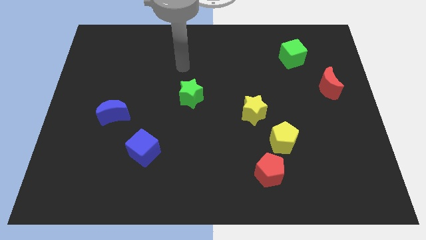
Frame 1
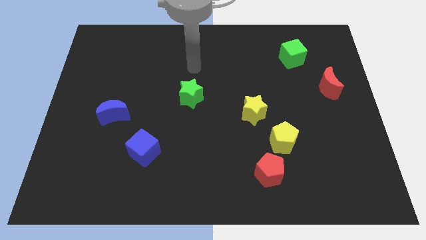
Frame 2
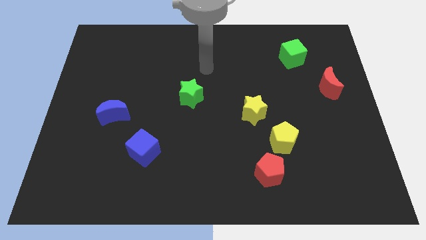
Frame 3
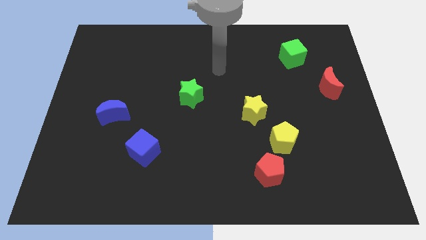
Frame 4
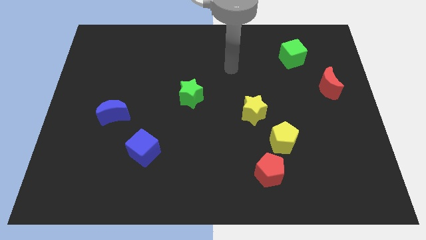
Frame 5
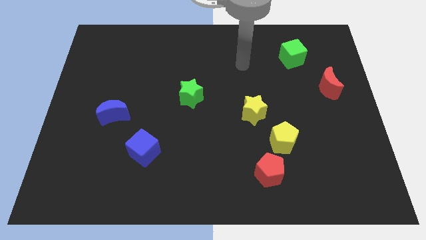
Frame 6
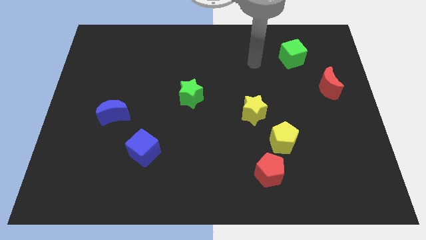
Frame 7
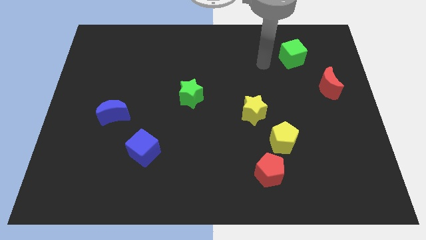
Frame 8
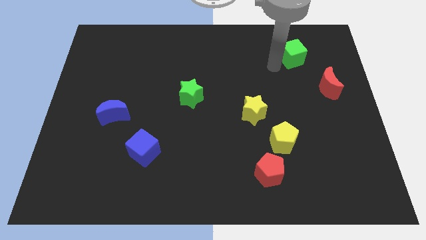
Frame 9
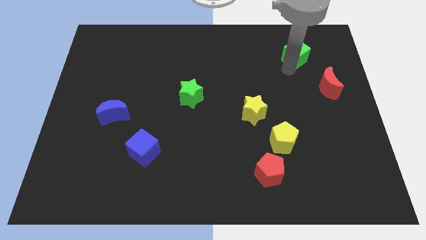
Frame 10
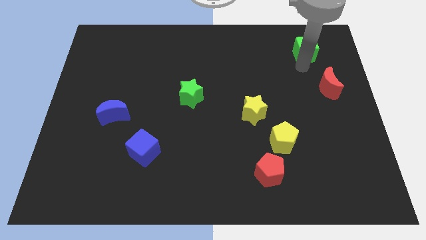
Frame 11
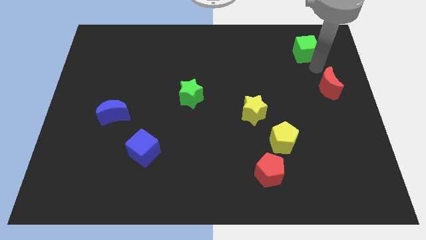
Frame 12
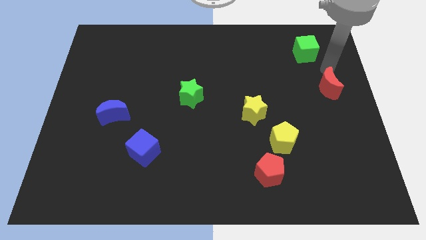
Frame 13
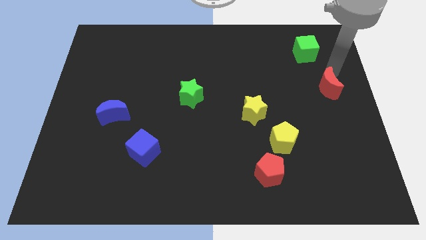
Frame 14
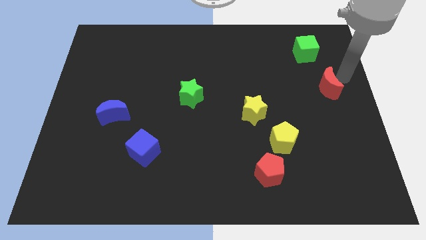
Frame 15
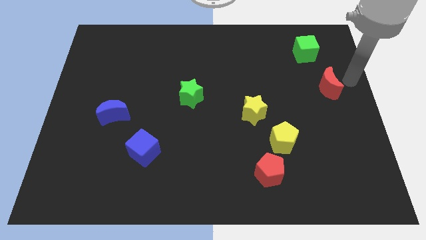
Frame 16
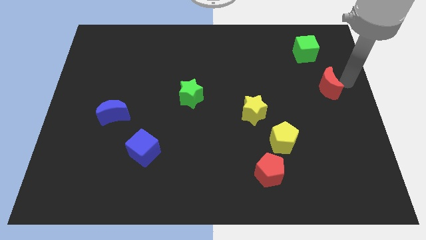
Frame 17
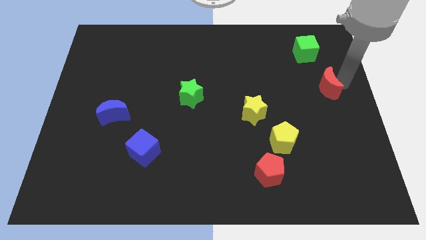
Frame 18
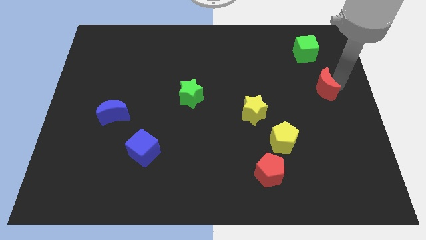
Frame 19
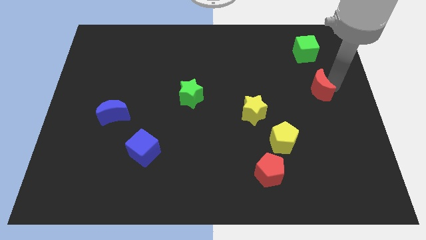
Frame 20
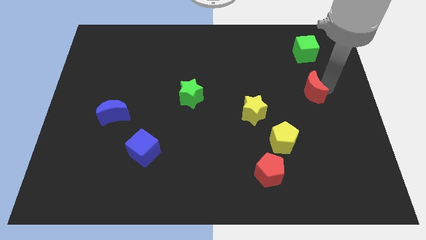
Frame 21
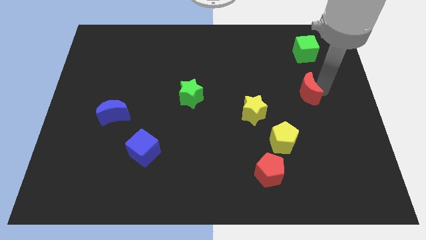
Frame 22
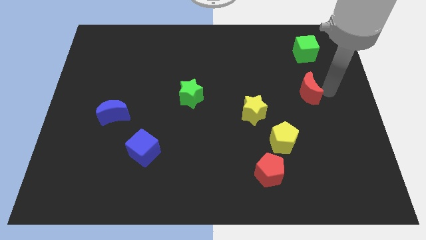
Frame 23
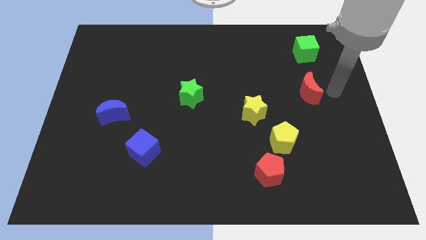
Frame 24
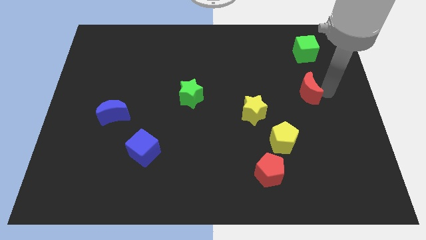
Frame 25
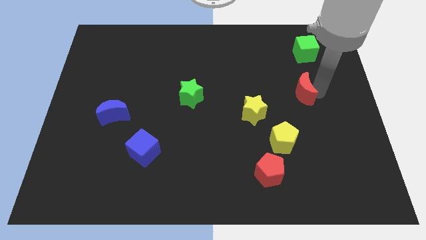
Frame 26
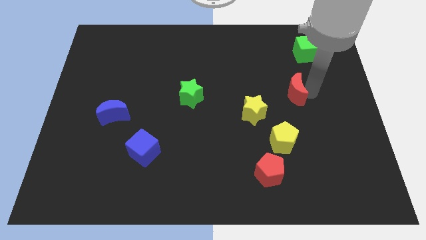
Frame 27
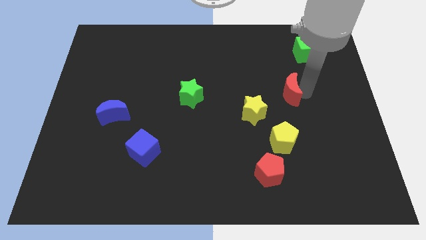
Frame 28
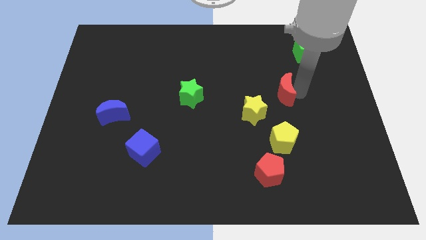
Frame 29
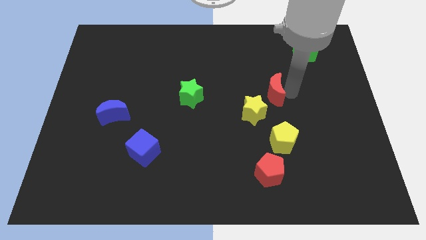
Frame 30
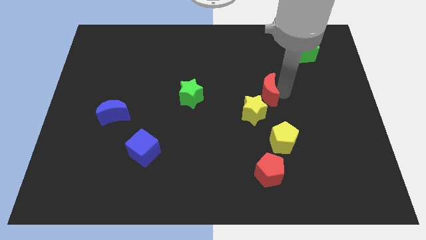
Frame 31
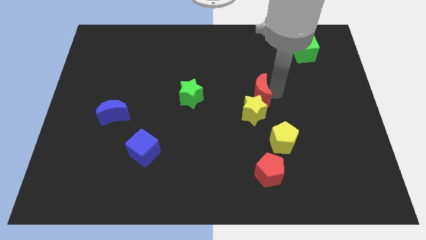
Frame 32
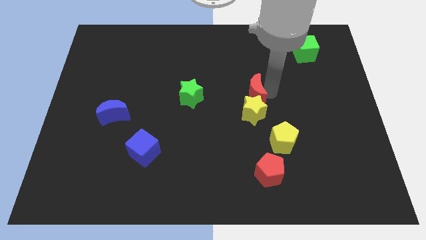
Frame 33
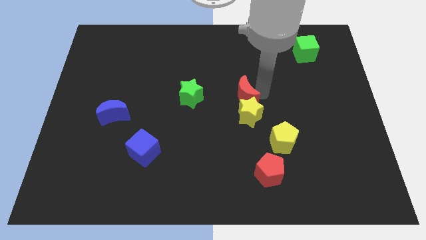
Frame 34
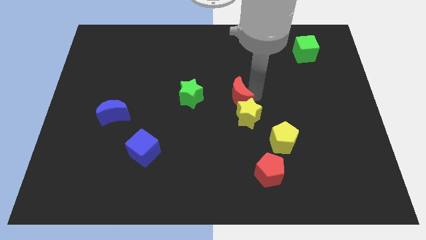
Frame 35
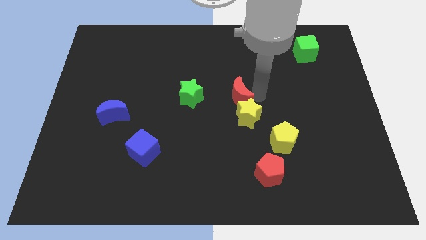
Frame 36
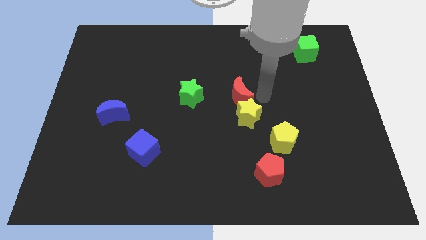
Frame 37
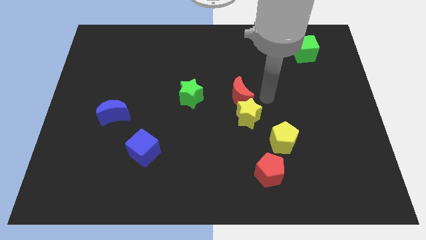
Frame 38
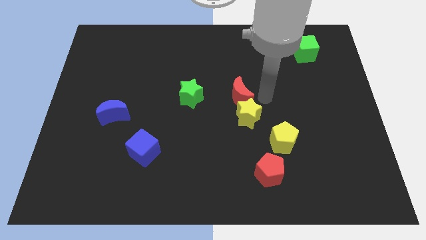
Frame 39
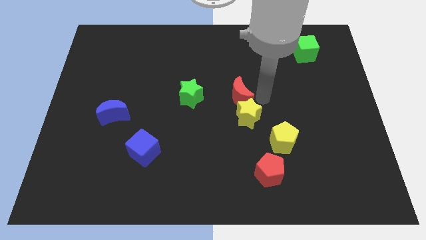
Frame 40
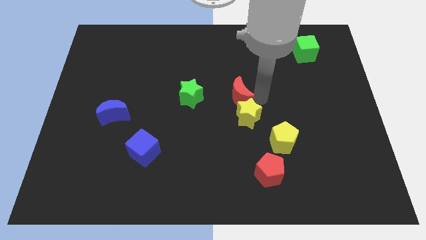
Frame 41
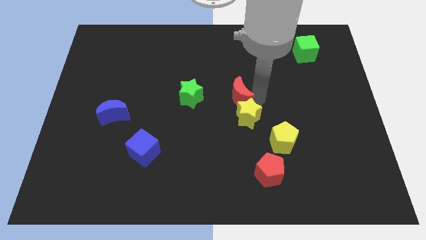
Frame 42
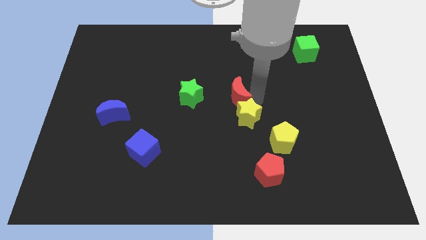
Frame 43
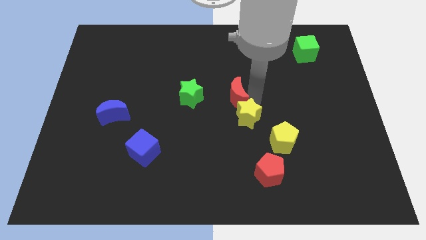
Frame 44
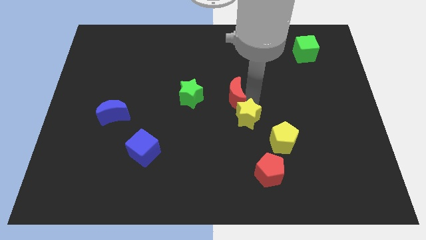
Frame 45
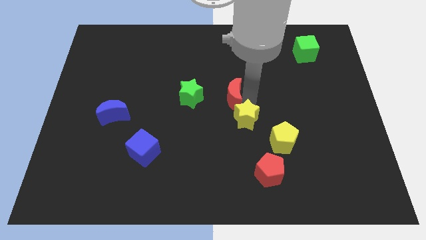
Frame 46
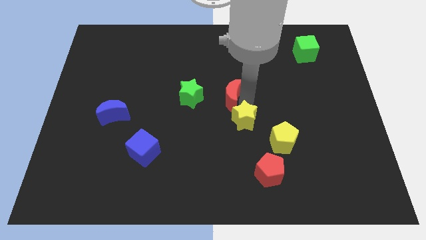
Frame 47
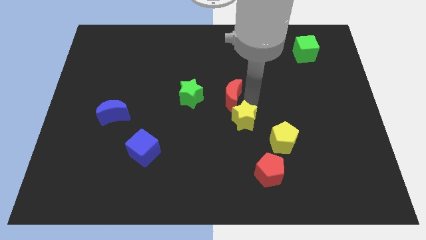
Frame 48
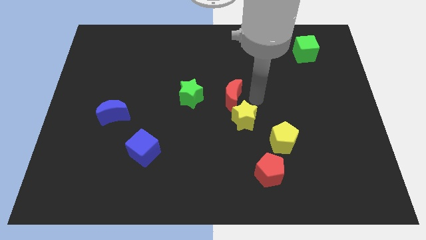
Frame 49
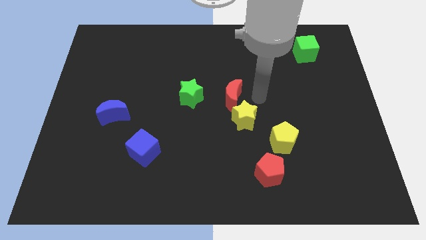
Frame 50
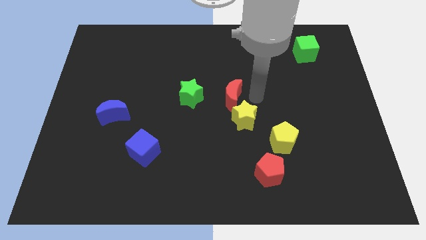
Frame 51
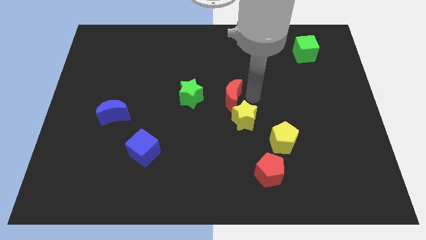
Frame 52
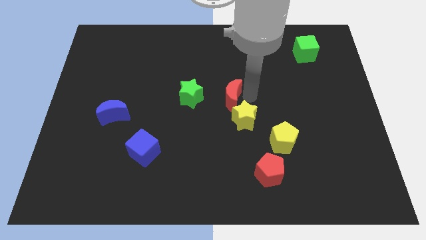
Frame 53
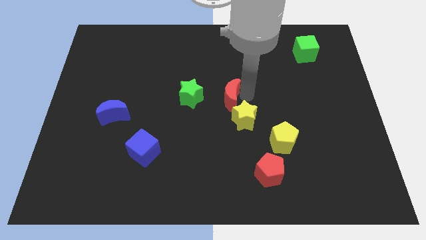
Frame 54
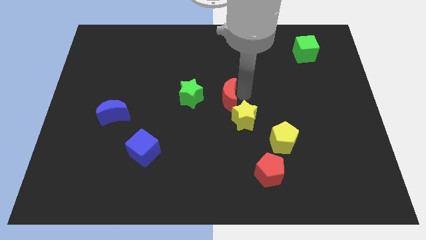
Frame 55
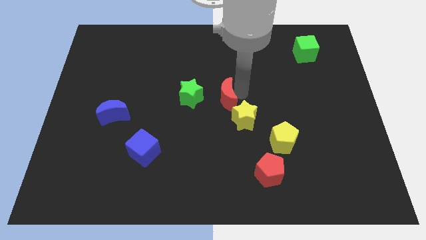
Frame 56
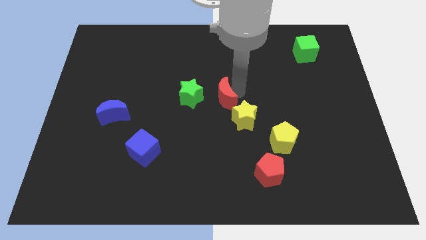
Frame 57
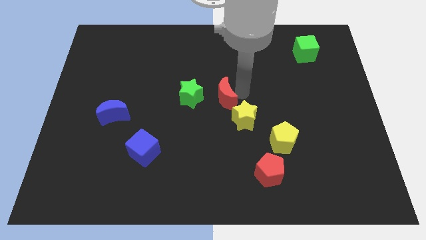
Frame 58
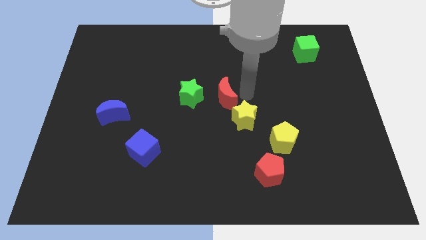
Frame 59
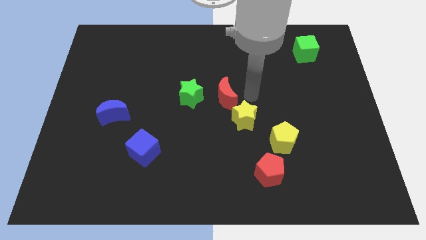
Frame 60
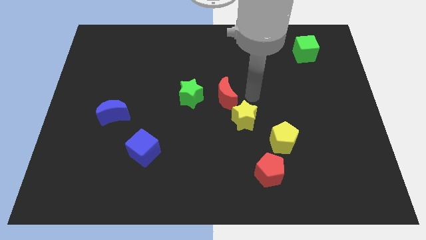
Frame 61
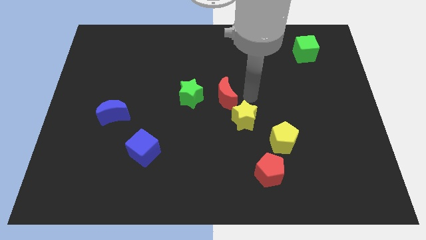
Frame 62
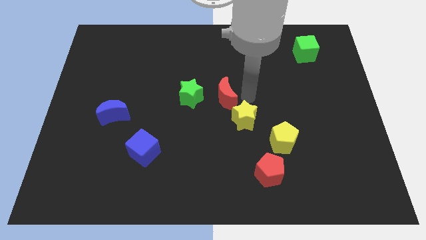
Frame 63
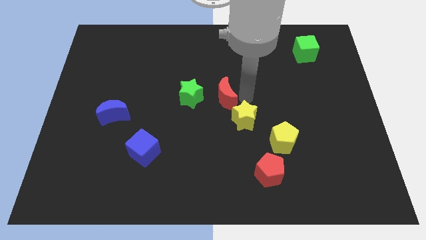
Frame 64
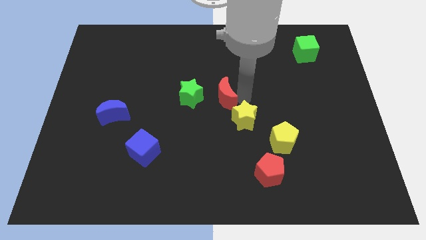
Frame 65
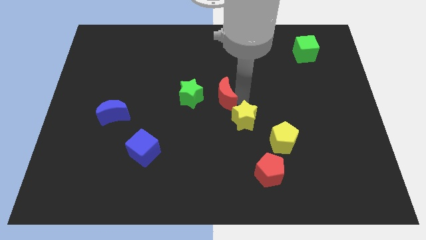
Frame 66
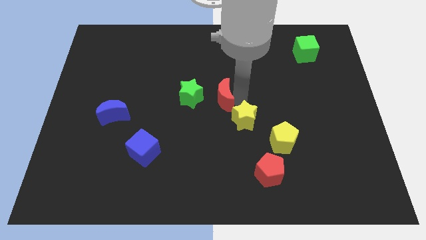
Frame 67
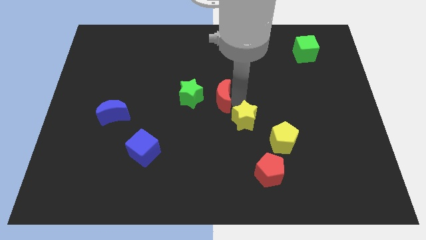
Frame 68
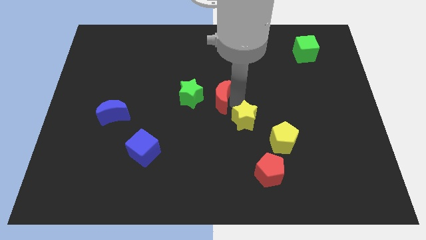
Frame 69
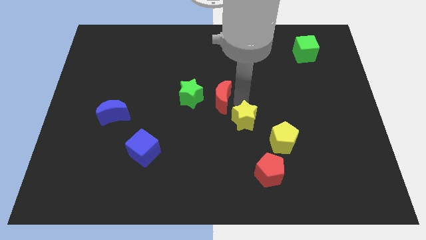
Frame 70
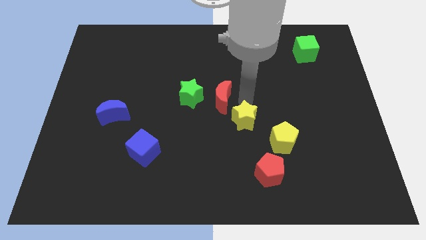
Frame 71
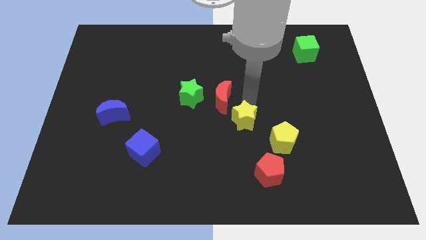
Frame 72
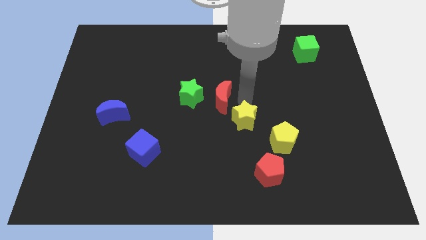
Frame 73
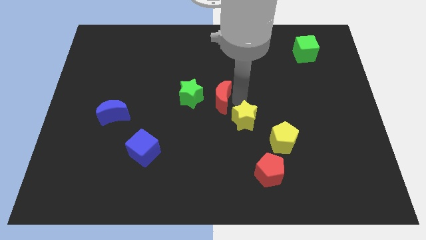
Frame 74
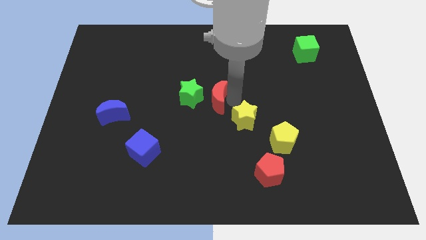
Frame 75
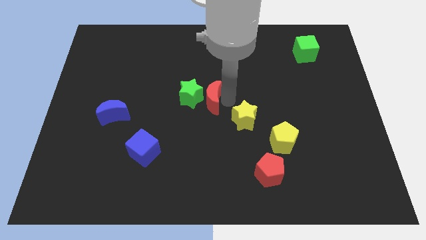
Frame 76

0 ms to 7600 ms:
slide the red moon close to the green star
